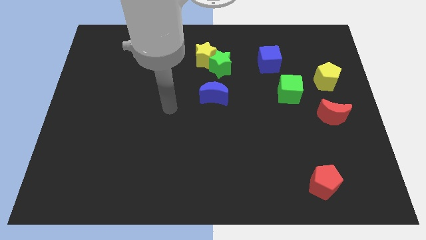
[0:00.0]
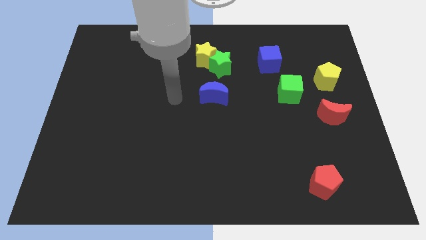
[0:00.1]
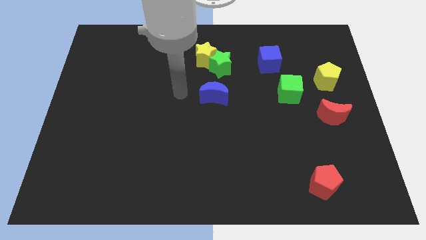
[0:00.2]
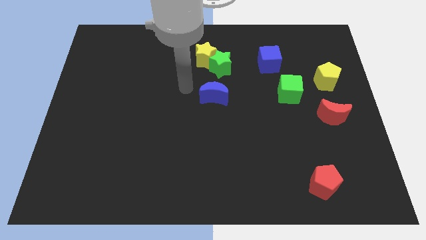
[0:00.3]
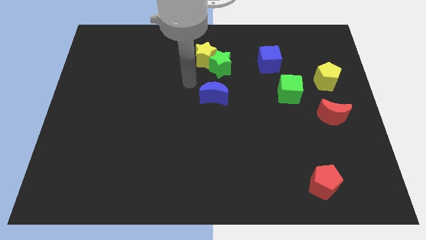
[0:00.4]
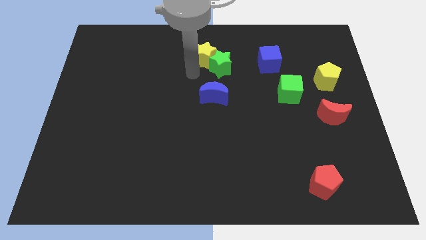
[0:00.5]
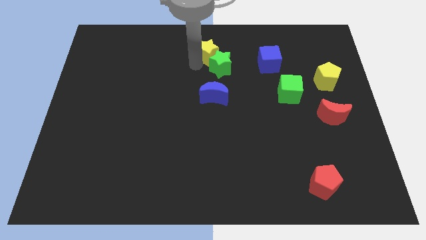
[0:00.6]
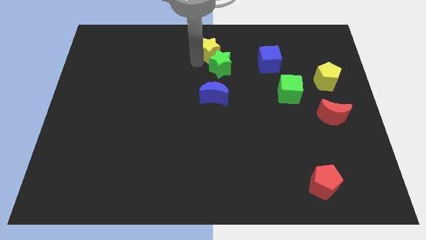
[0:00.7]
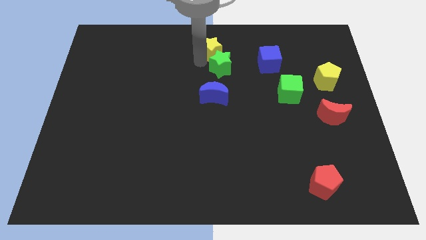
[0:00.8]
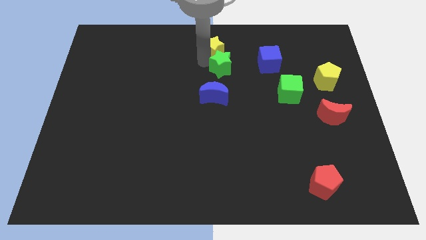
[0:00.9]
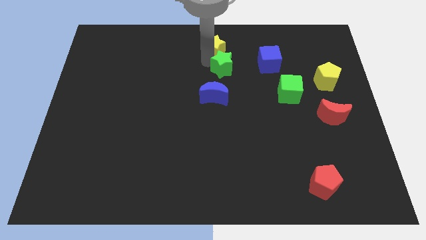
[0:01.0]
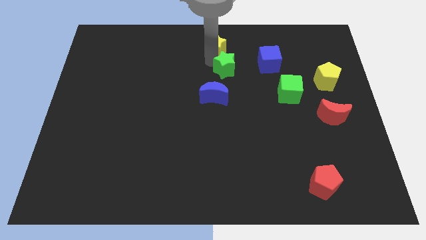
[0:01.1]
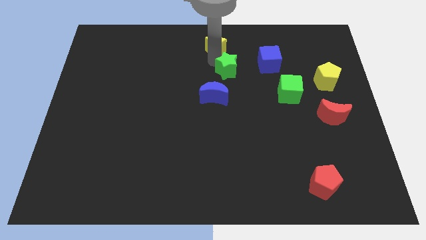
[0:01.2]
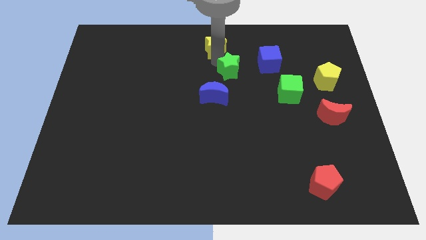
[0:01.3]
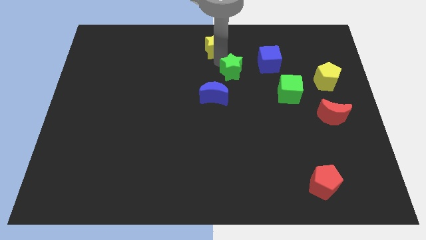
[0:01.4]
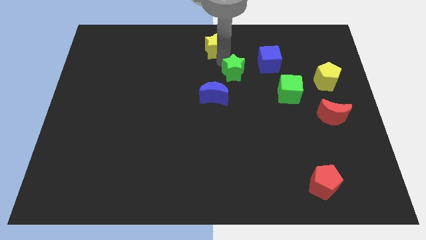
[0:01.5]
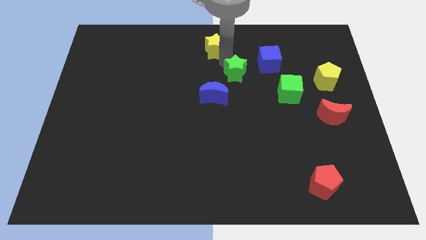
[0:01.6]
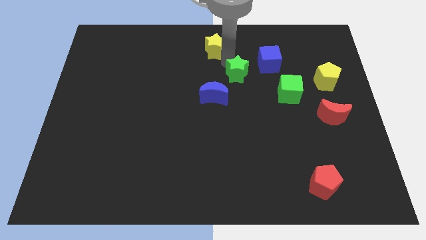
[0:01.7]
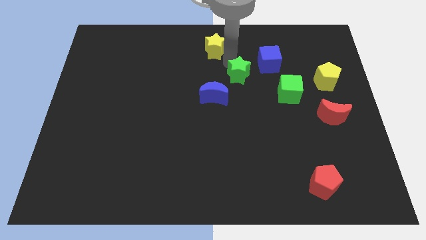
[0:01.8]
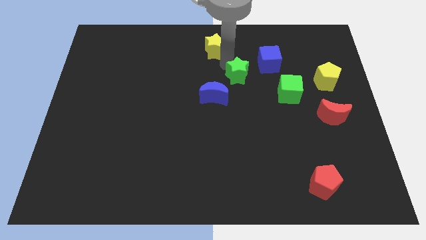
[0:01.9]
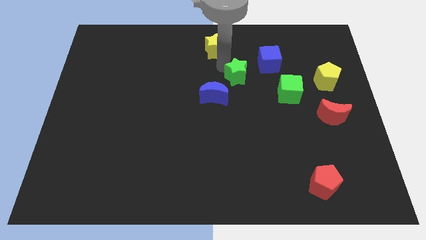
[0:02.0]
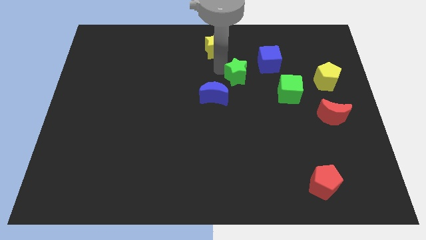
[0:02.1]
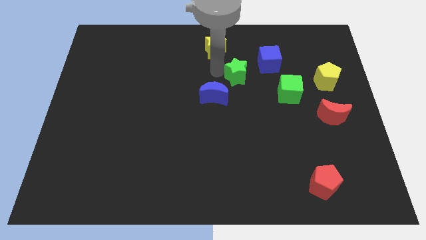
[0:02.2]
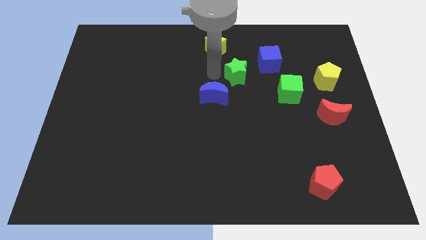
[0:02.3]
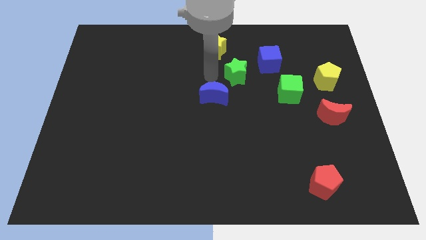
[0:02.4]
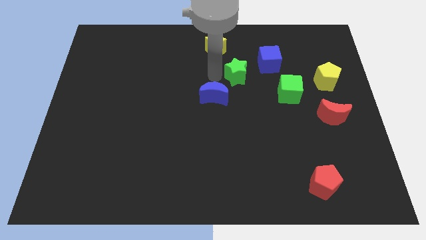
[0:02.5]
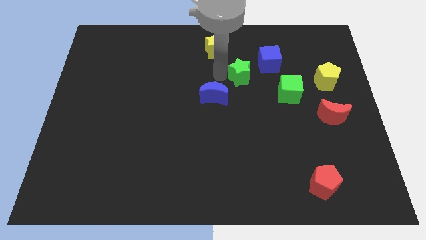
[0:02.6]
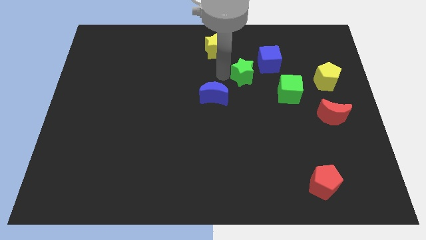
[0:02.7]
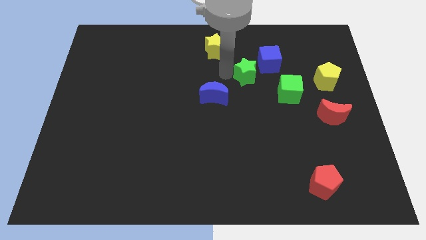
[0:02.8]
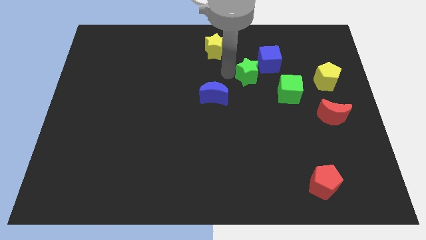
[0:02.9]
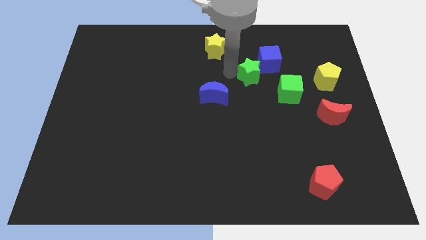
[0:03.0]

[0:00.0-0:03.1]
slightly move the green star right

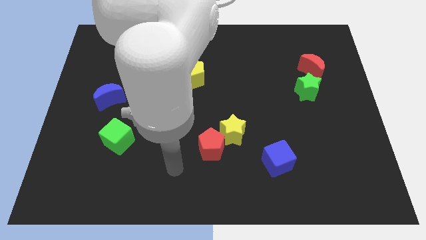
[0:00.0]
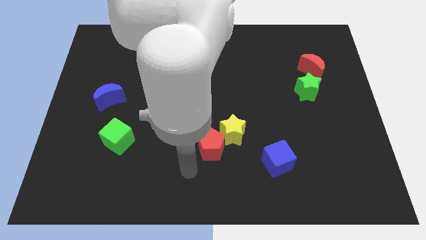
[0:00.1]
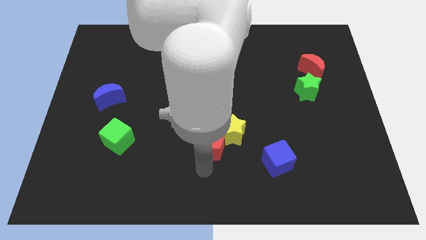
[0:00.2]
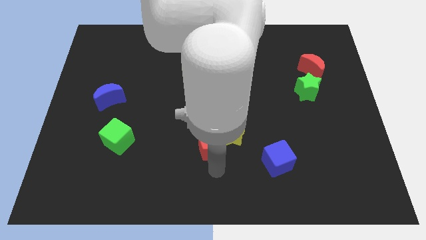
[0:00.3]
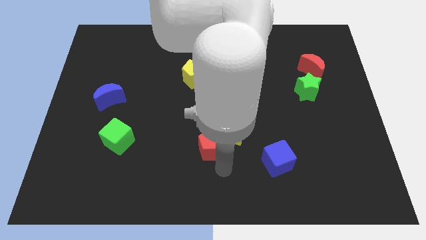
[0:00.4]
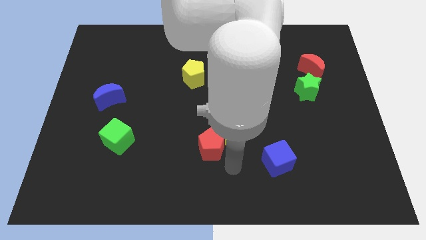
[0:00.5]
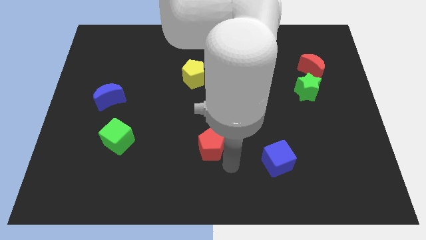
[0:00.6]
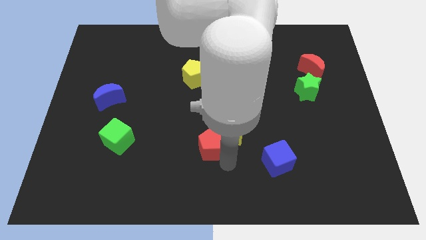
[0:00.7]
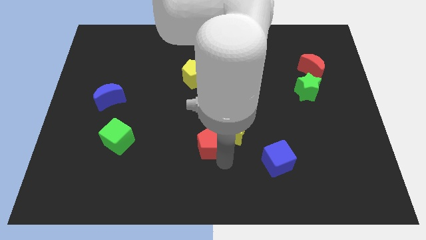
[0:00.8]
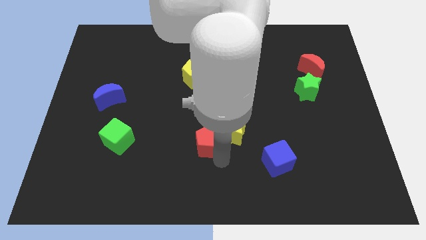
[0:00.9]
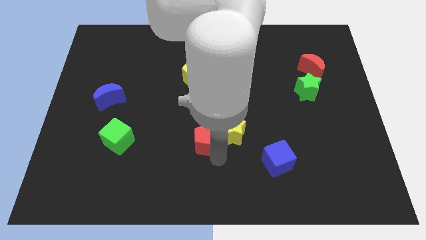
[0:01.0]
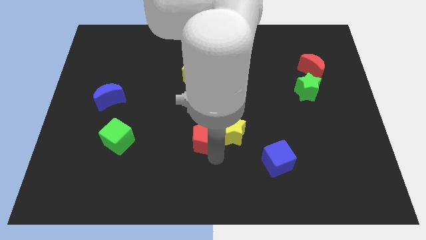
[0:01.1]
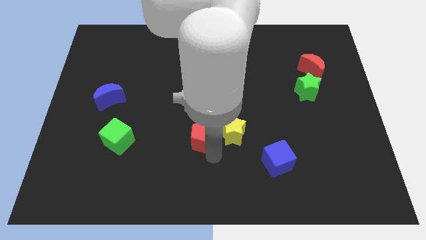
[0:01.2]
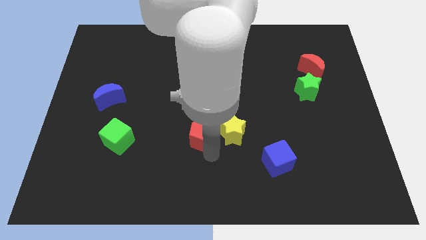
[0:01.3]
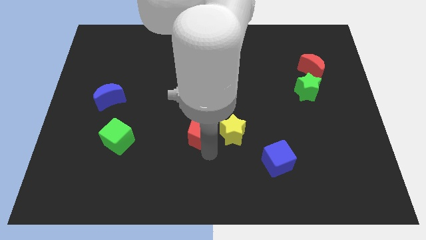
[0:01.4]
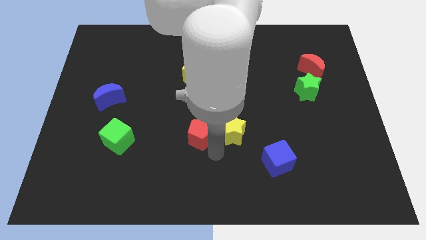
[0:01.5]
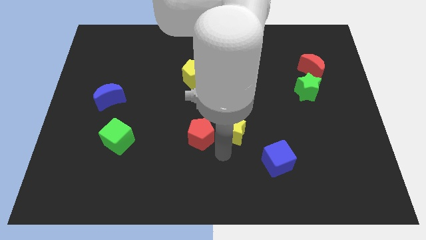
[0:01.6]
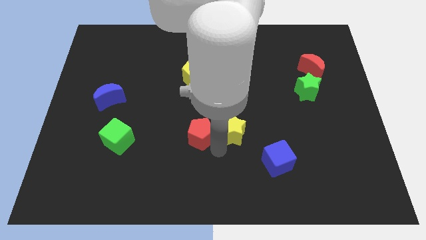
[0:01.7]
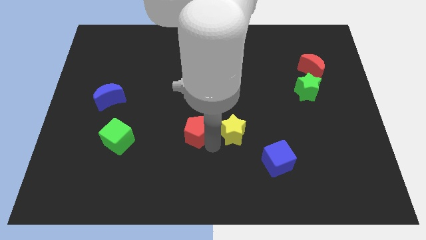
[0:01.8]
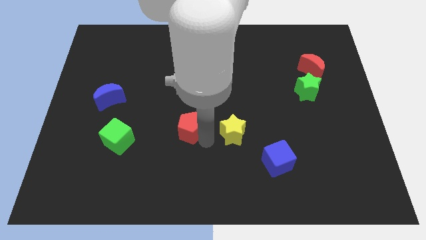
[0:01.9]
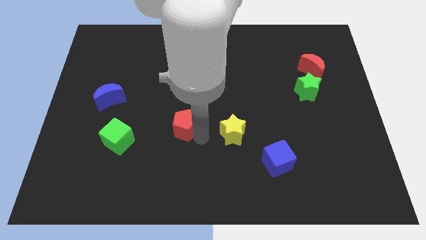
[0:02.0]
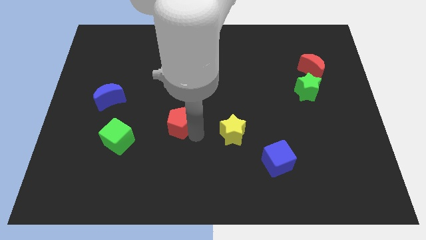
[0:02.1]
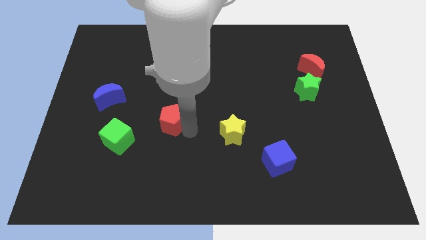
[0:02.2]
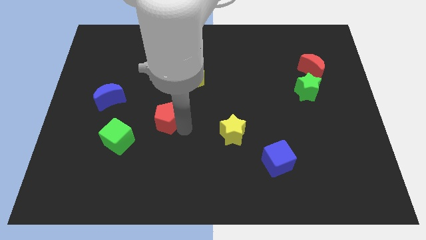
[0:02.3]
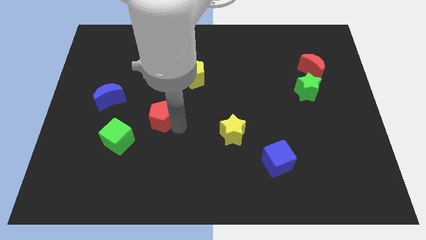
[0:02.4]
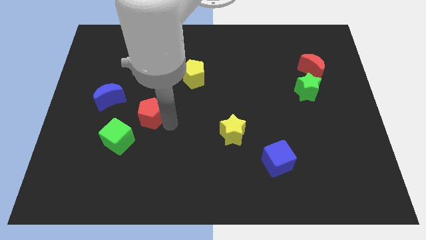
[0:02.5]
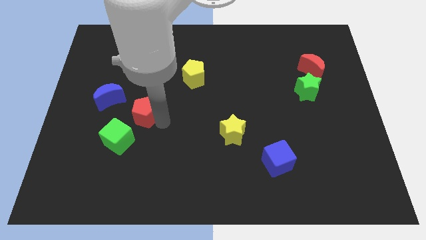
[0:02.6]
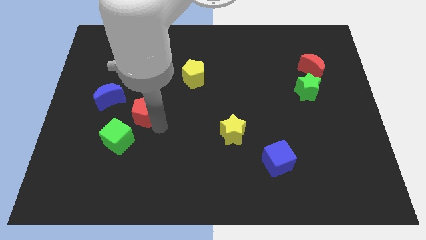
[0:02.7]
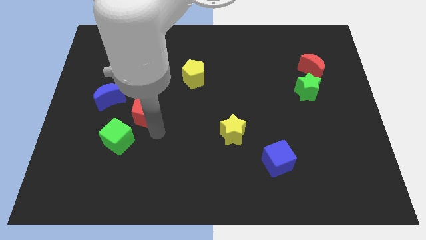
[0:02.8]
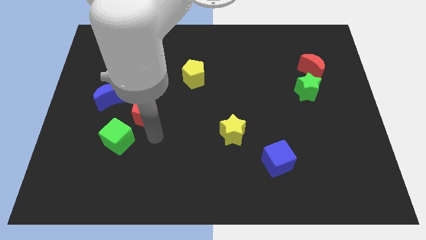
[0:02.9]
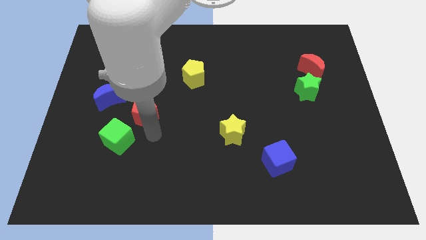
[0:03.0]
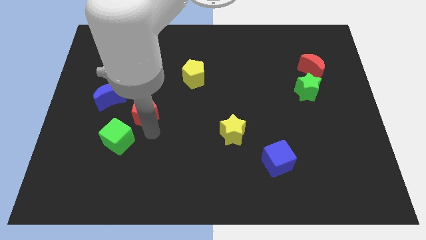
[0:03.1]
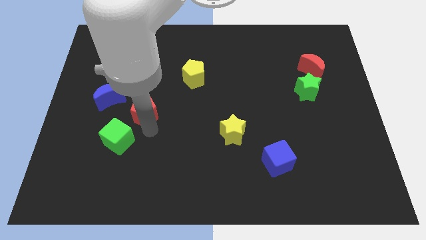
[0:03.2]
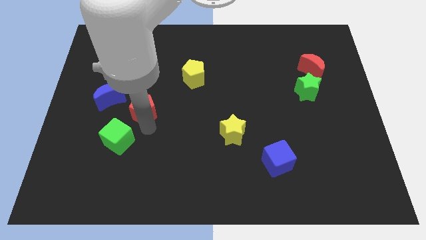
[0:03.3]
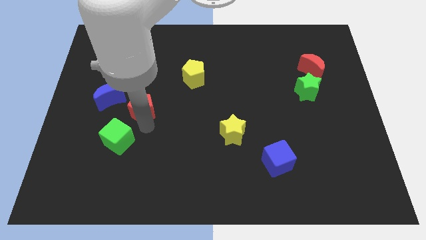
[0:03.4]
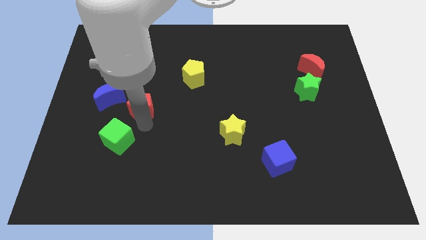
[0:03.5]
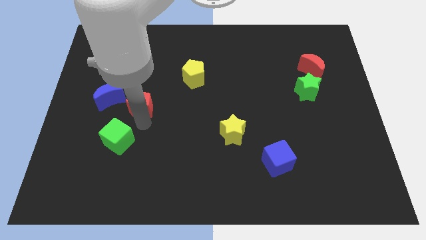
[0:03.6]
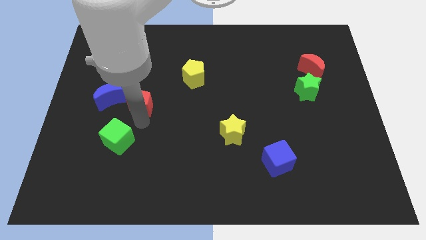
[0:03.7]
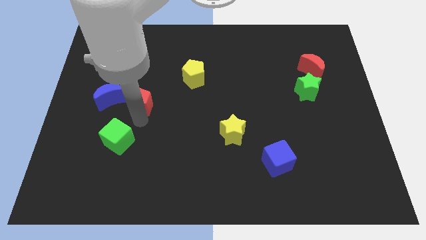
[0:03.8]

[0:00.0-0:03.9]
move the red pentagon upwards and to the left

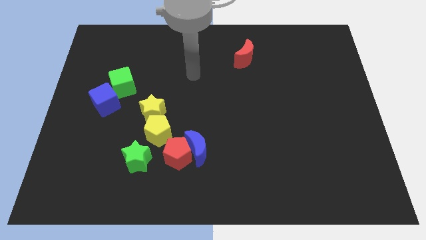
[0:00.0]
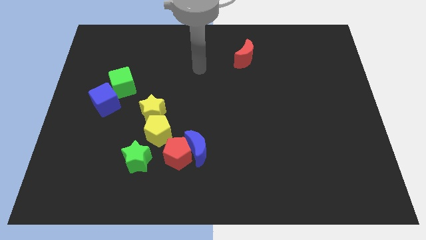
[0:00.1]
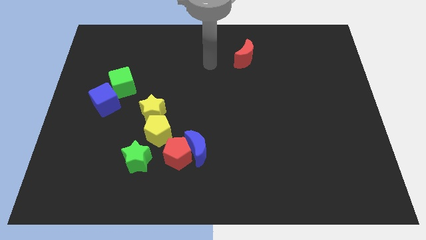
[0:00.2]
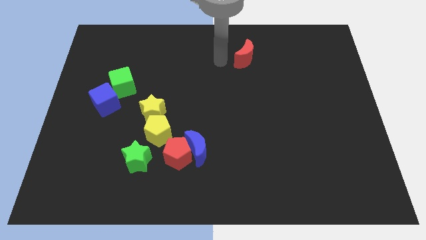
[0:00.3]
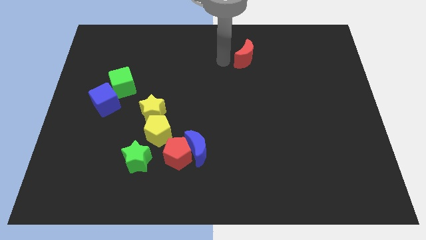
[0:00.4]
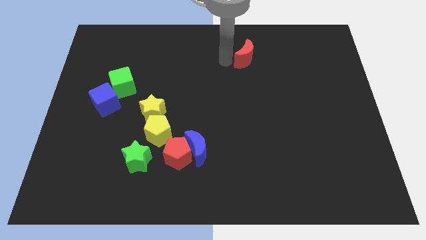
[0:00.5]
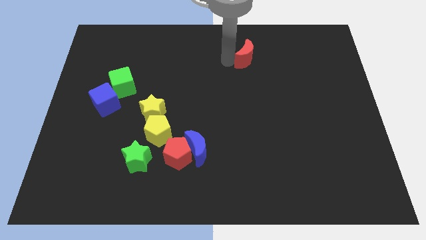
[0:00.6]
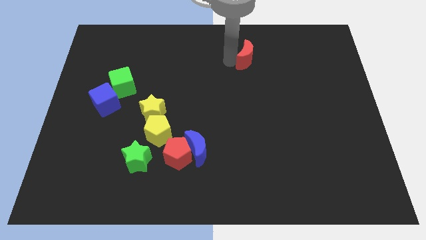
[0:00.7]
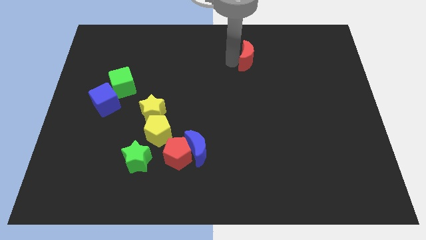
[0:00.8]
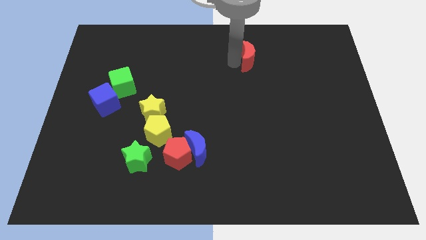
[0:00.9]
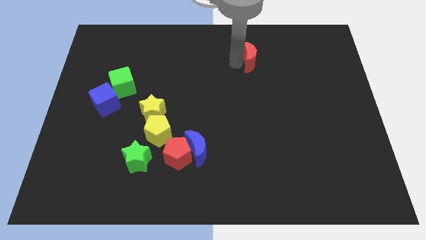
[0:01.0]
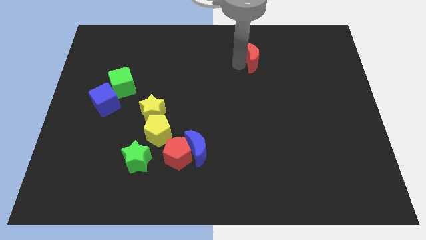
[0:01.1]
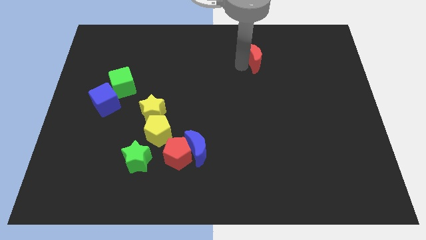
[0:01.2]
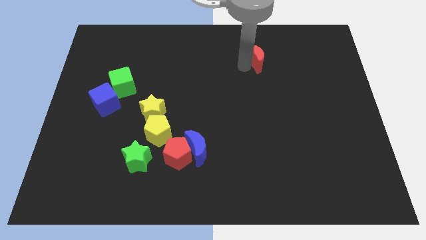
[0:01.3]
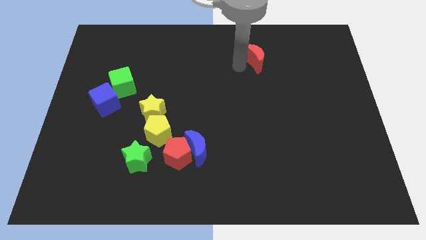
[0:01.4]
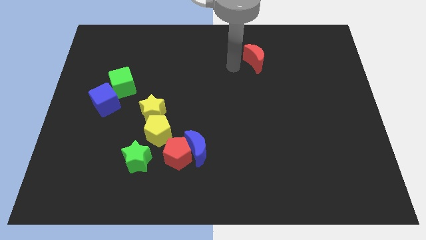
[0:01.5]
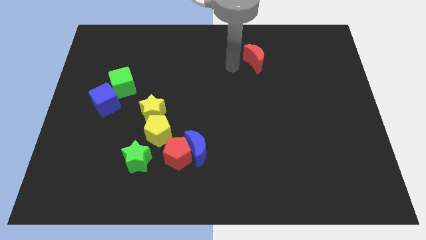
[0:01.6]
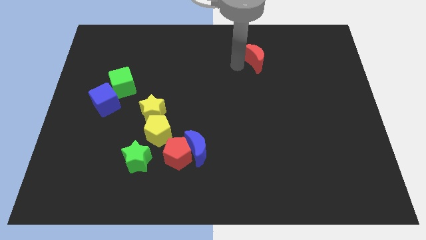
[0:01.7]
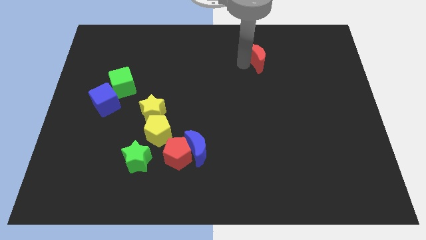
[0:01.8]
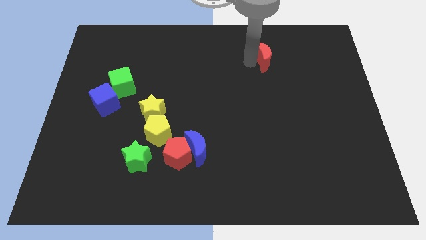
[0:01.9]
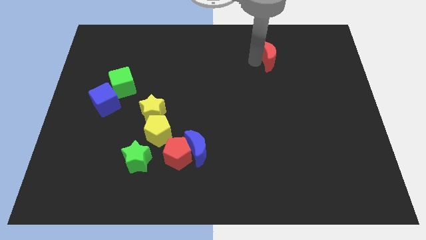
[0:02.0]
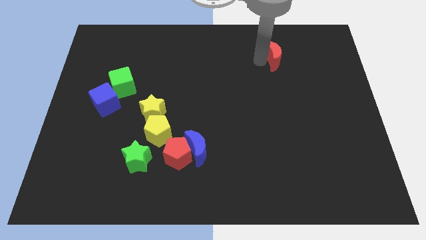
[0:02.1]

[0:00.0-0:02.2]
slide the red moon slightly right
